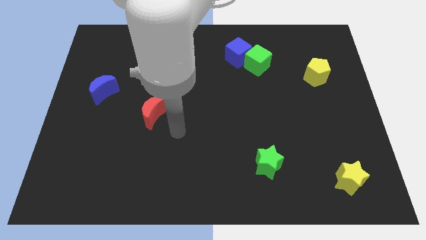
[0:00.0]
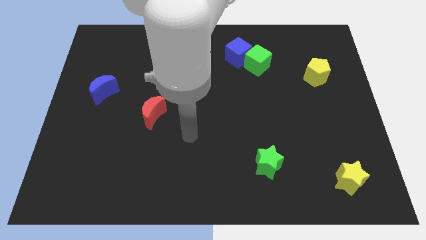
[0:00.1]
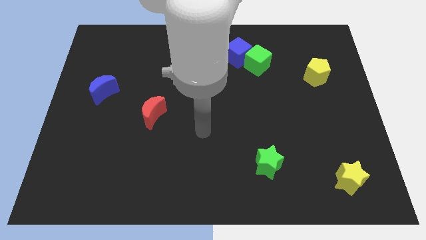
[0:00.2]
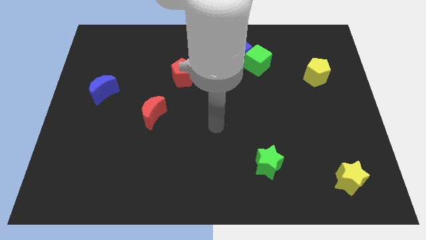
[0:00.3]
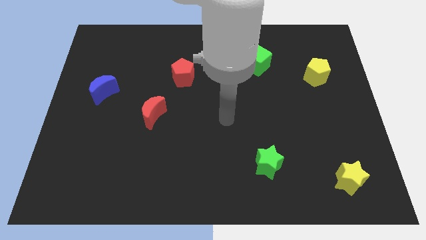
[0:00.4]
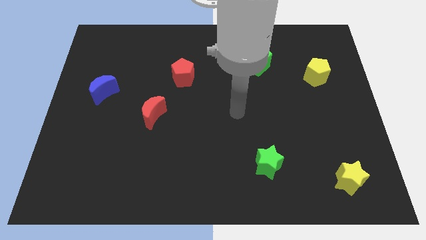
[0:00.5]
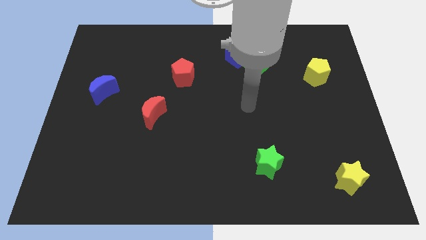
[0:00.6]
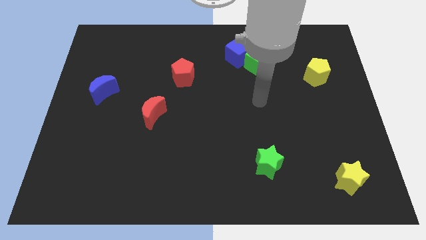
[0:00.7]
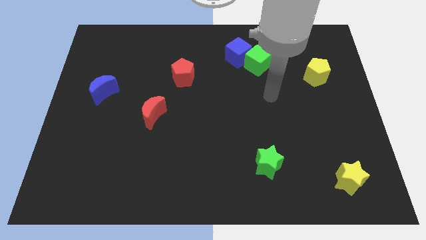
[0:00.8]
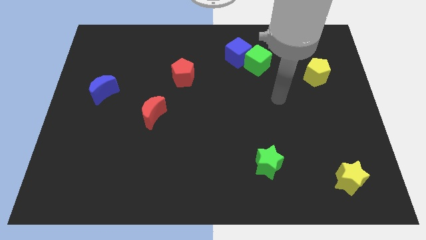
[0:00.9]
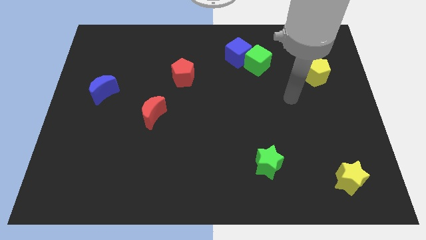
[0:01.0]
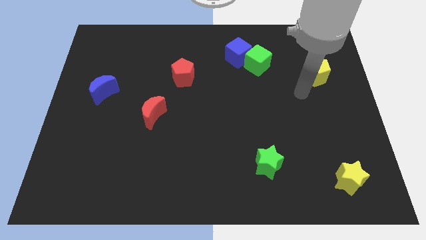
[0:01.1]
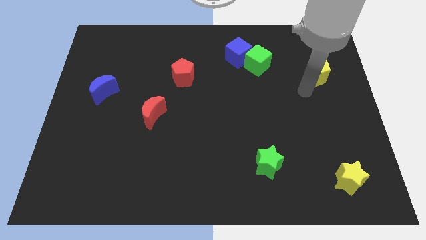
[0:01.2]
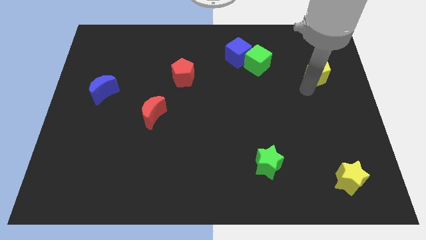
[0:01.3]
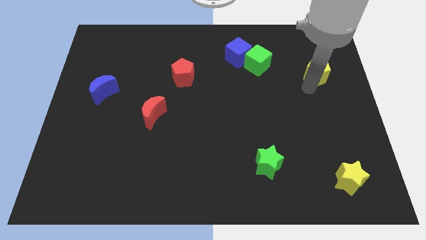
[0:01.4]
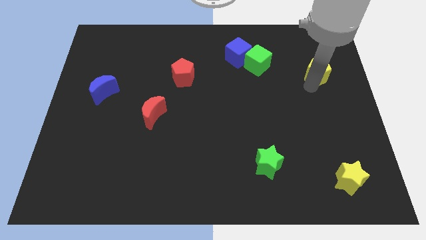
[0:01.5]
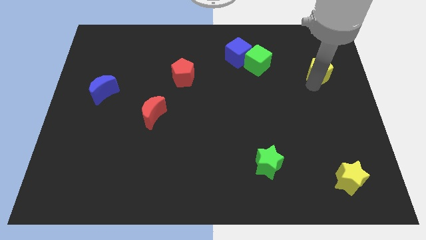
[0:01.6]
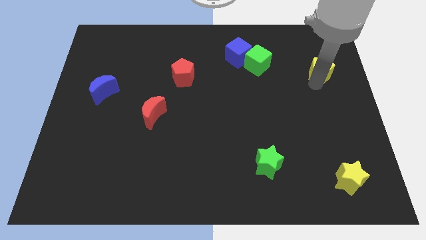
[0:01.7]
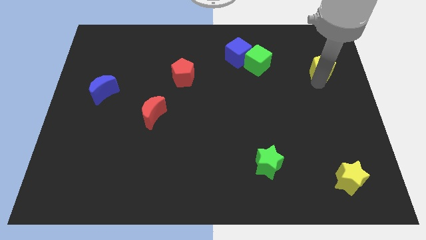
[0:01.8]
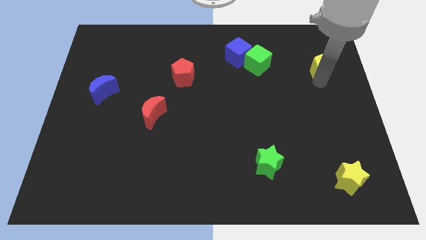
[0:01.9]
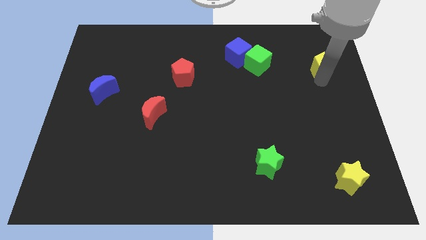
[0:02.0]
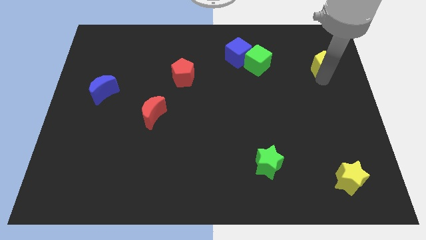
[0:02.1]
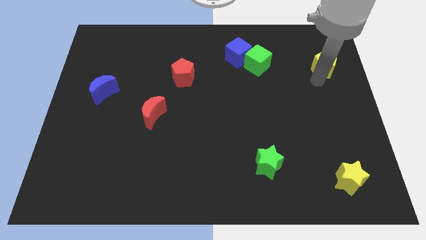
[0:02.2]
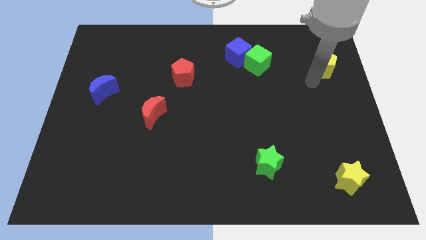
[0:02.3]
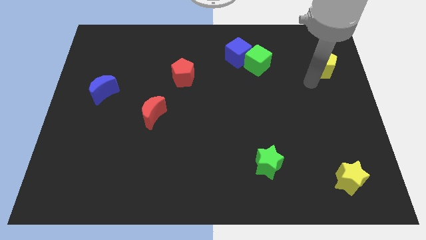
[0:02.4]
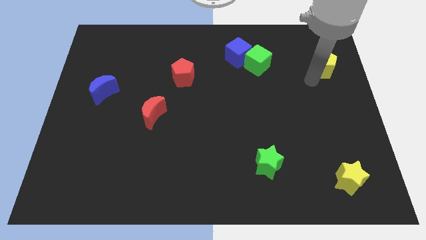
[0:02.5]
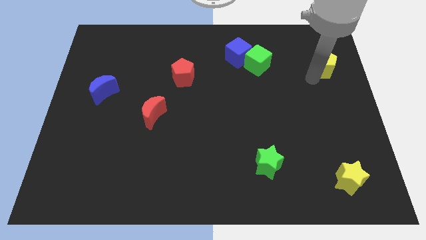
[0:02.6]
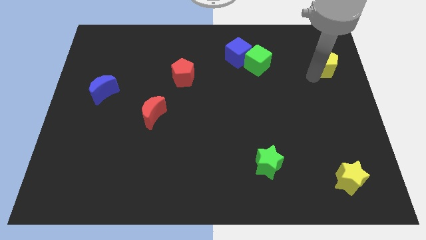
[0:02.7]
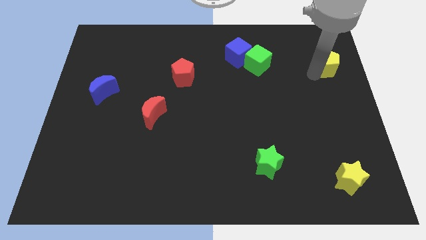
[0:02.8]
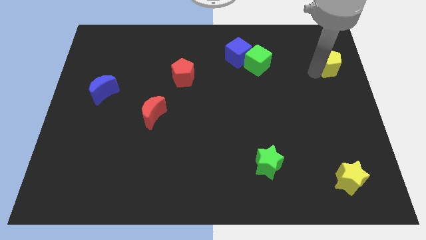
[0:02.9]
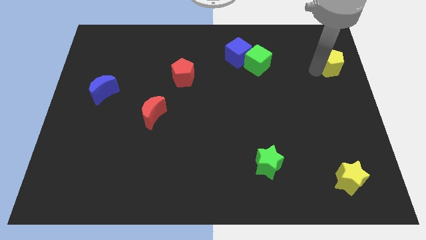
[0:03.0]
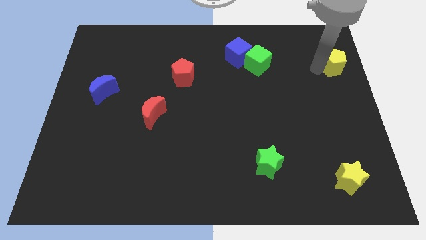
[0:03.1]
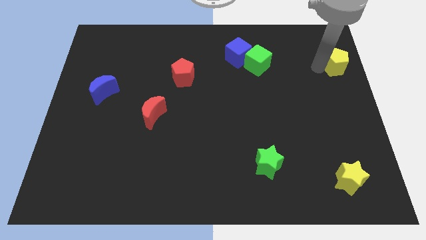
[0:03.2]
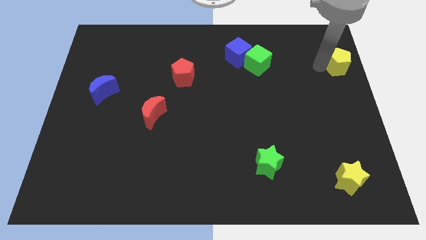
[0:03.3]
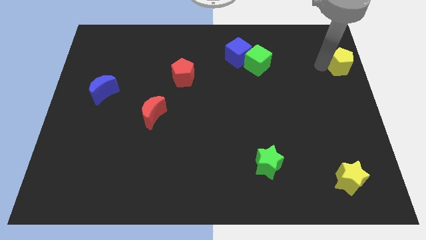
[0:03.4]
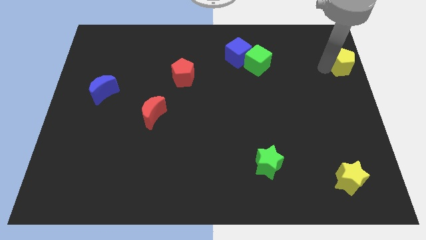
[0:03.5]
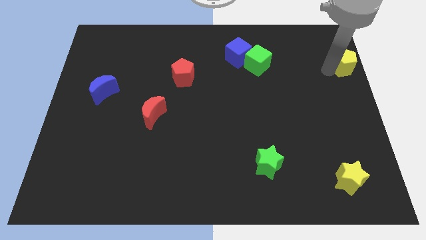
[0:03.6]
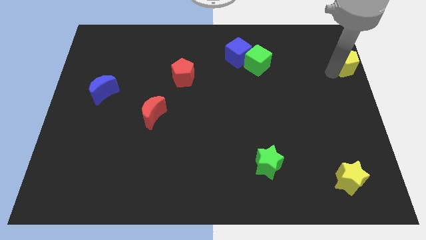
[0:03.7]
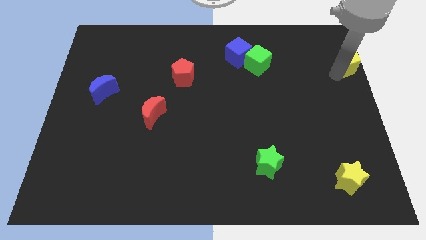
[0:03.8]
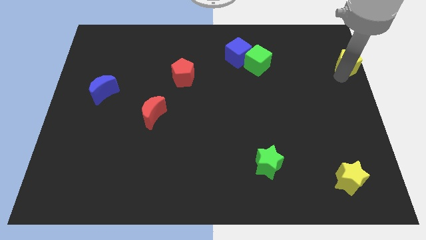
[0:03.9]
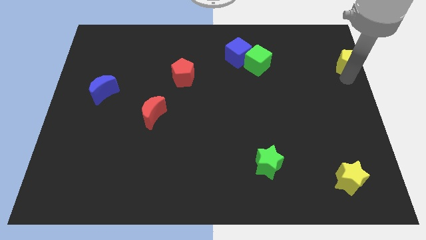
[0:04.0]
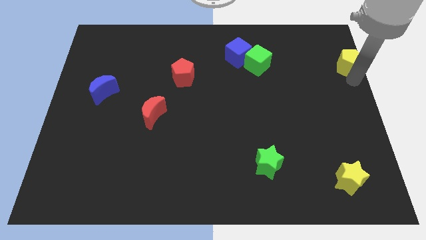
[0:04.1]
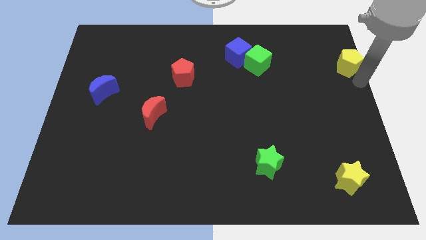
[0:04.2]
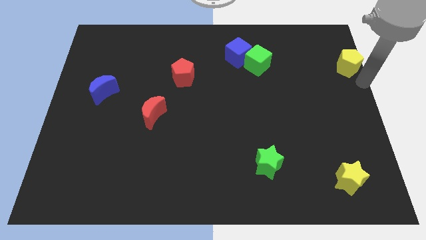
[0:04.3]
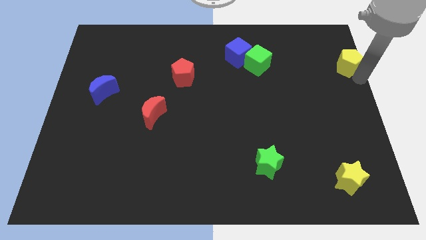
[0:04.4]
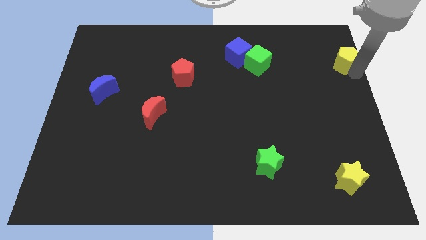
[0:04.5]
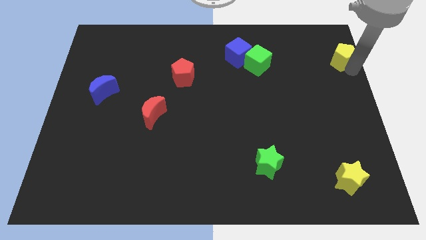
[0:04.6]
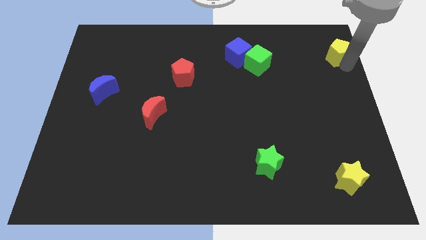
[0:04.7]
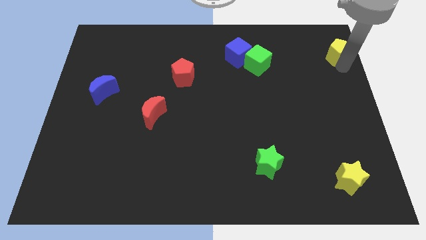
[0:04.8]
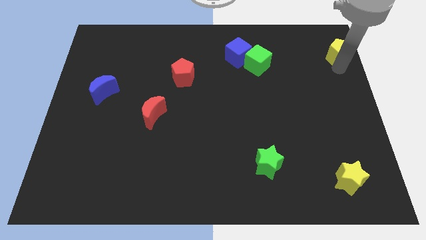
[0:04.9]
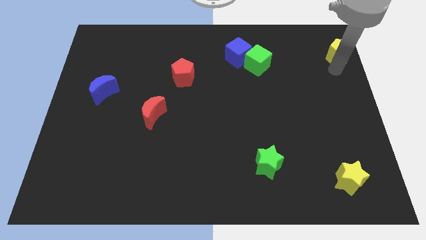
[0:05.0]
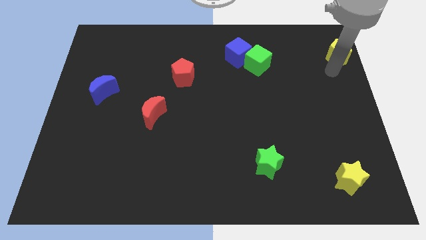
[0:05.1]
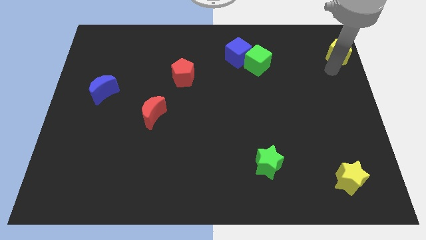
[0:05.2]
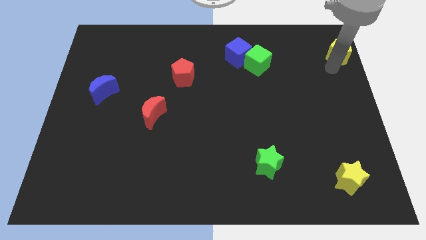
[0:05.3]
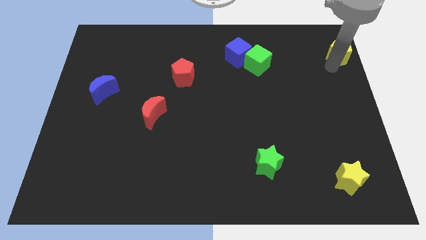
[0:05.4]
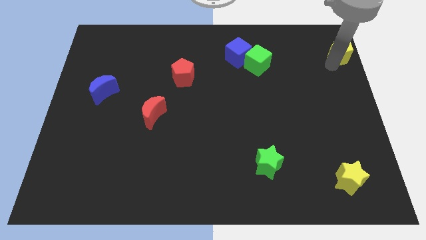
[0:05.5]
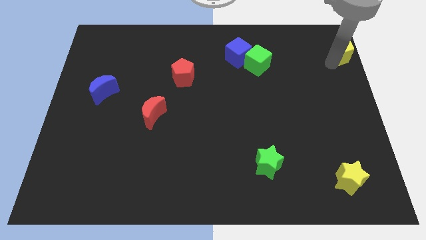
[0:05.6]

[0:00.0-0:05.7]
slide the yellow pentagon to the top right of the board

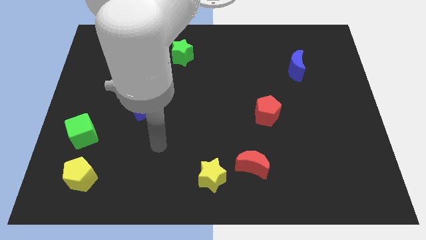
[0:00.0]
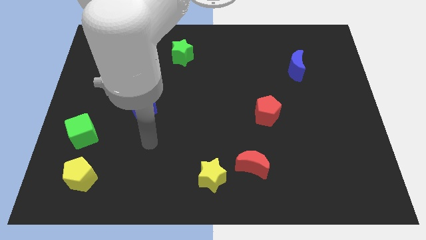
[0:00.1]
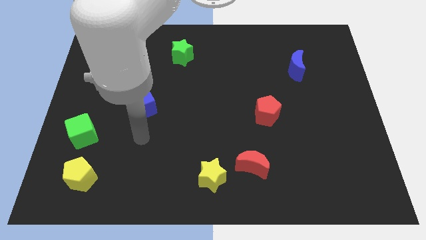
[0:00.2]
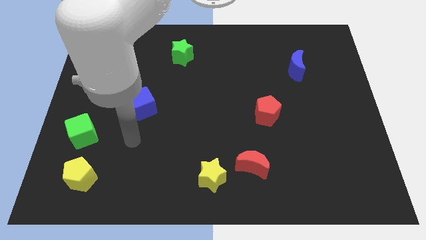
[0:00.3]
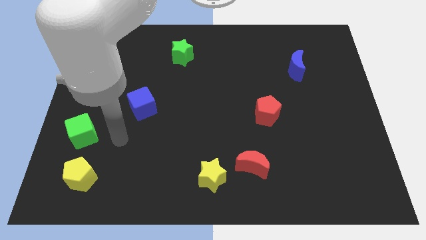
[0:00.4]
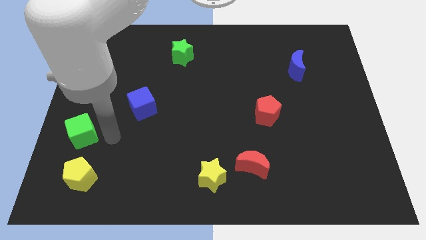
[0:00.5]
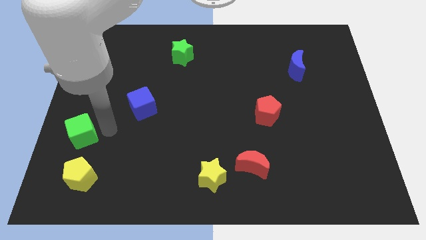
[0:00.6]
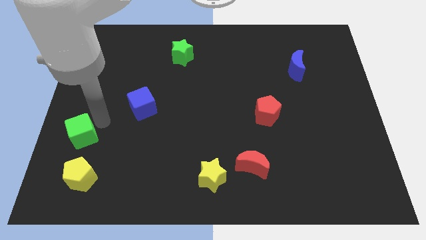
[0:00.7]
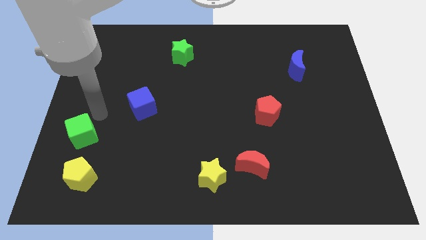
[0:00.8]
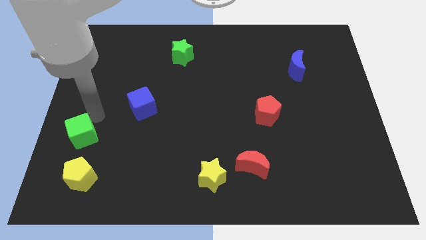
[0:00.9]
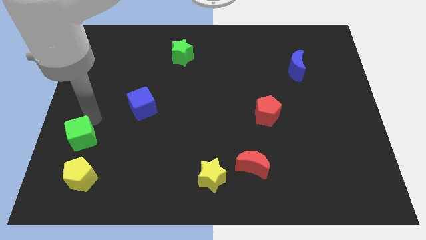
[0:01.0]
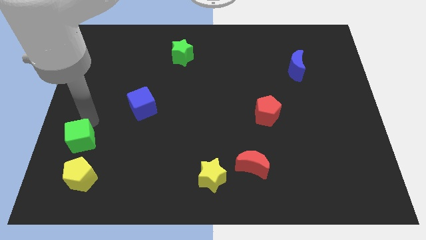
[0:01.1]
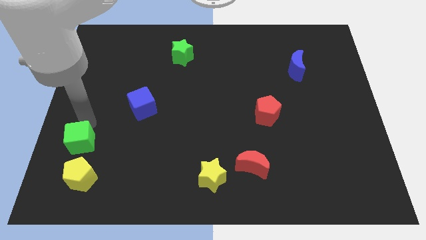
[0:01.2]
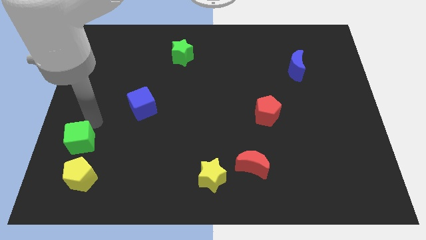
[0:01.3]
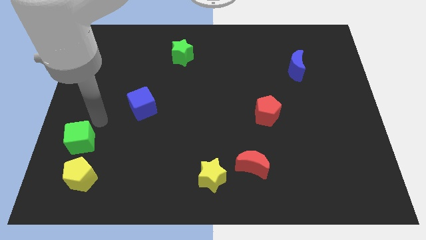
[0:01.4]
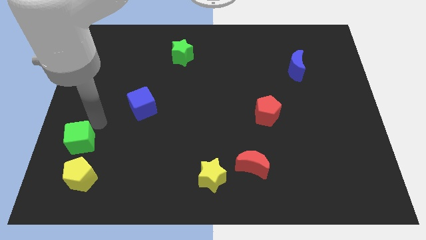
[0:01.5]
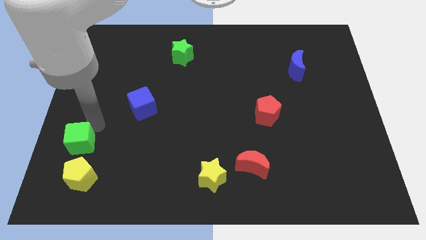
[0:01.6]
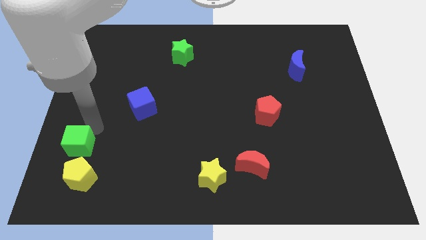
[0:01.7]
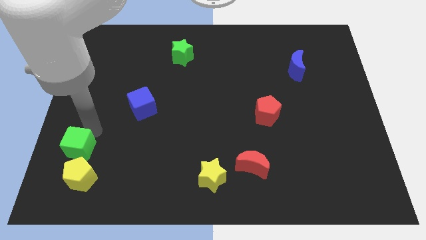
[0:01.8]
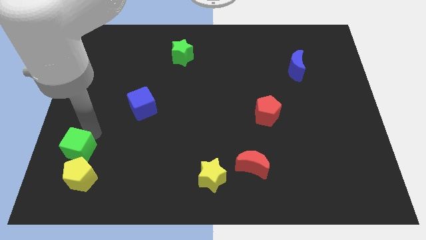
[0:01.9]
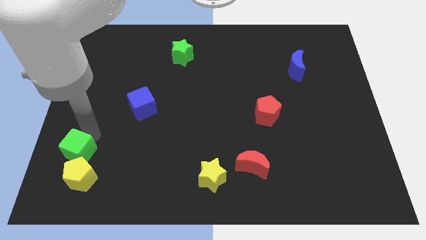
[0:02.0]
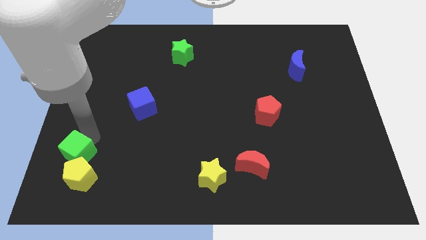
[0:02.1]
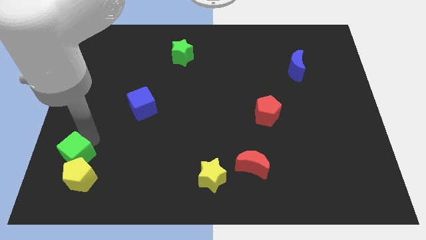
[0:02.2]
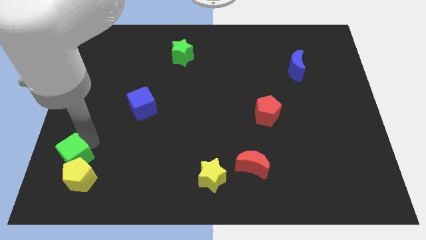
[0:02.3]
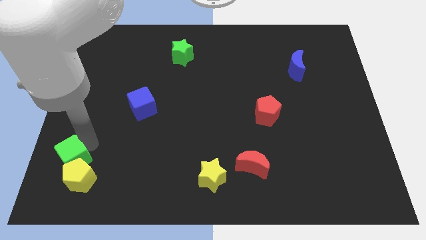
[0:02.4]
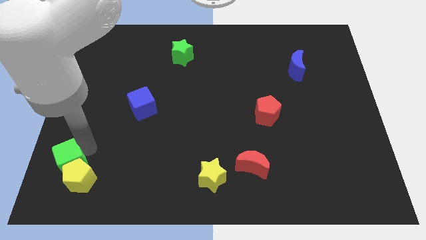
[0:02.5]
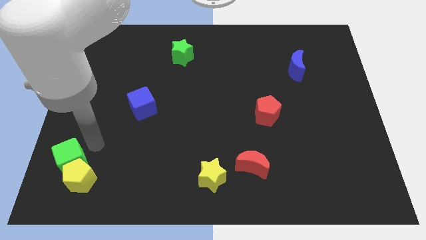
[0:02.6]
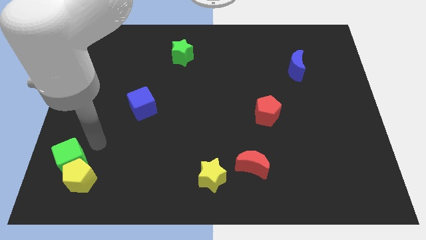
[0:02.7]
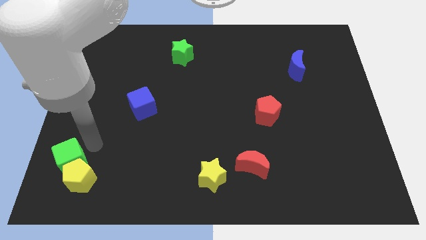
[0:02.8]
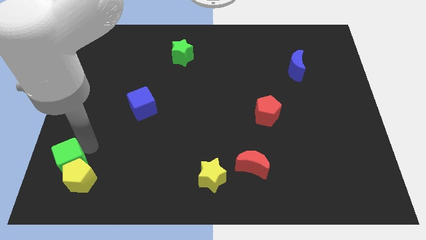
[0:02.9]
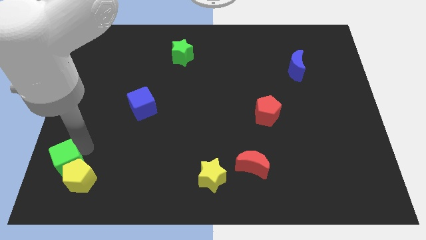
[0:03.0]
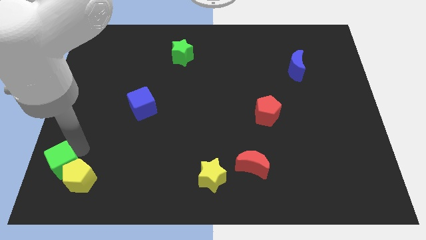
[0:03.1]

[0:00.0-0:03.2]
put the green cube to the bottom left corner
